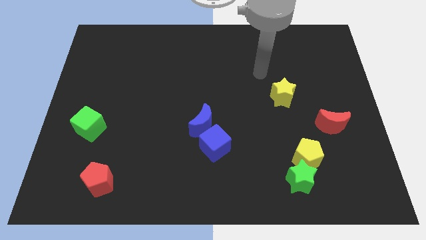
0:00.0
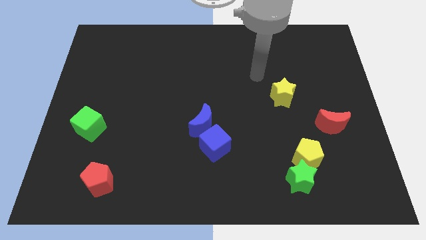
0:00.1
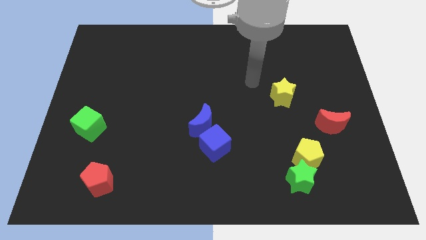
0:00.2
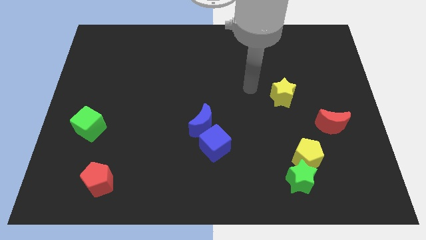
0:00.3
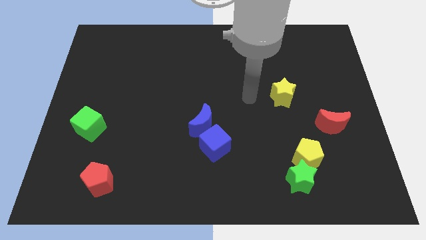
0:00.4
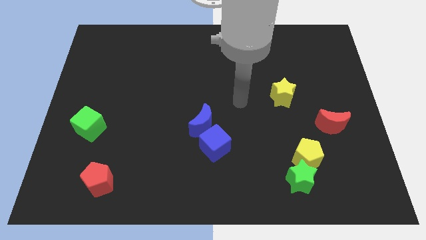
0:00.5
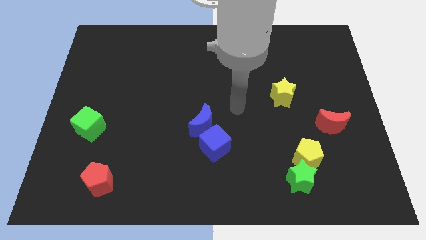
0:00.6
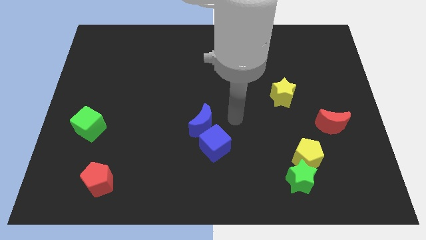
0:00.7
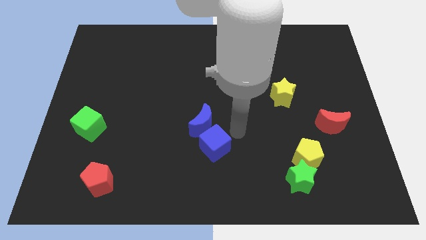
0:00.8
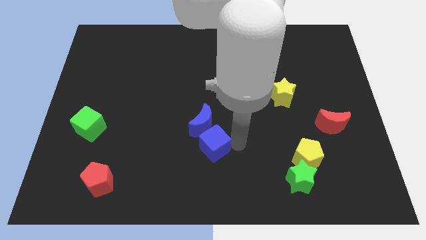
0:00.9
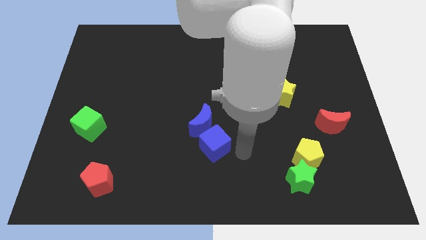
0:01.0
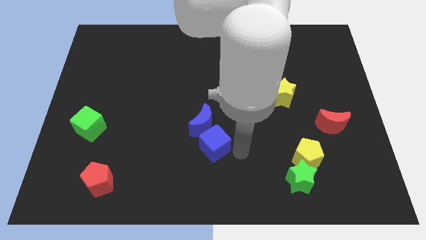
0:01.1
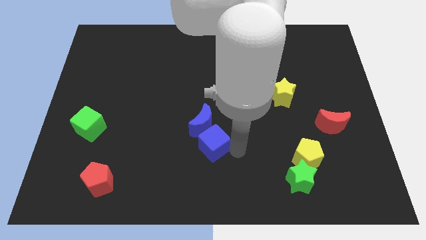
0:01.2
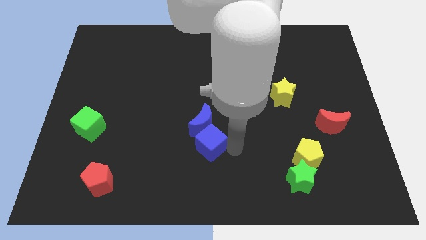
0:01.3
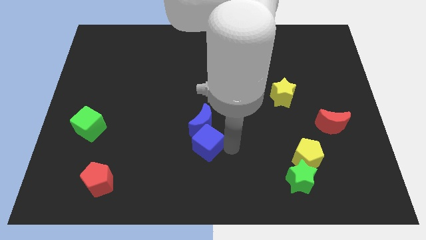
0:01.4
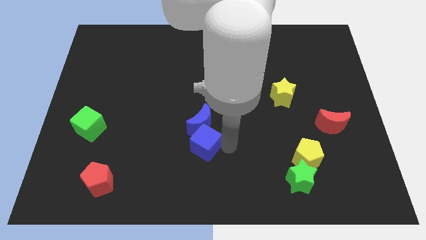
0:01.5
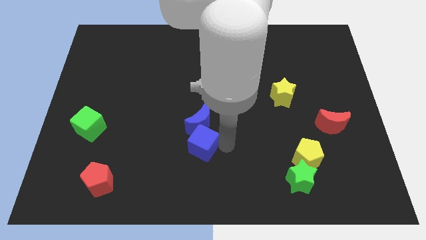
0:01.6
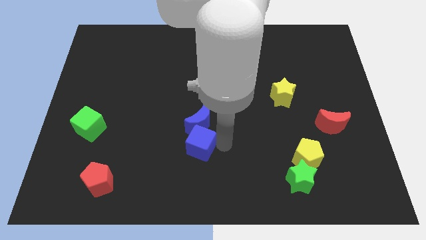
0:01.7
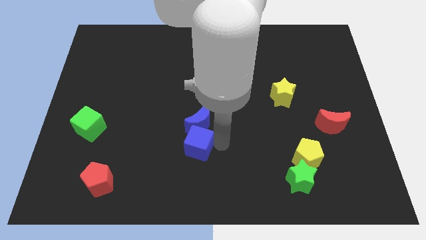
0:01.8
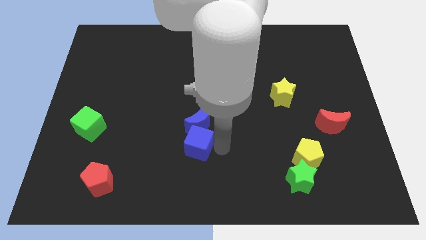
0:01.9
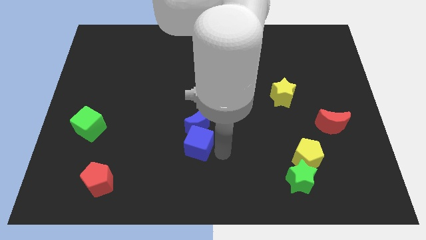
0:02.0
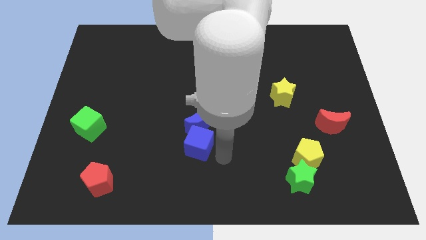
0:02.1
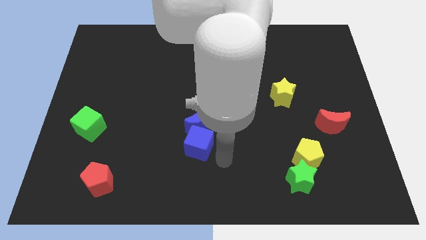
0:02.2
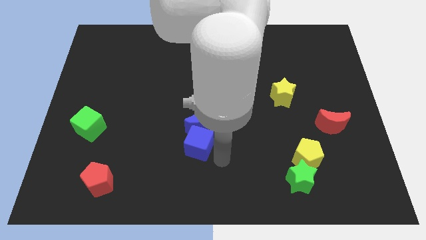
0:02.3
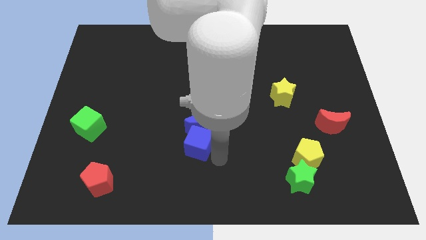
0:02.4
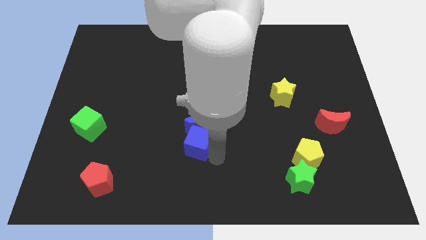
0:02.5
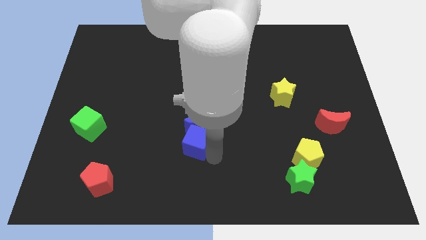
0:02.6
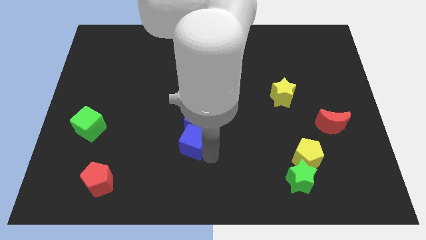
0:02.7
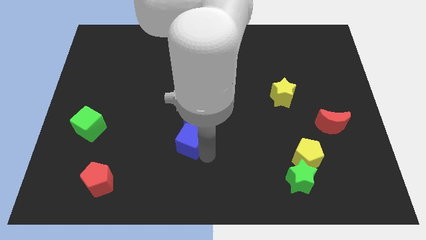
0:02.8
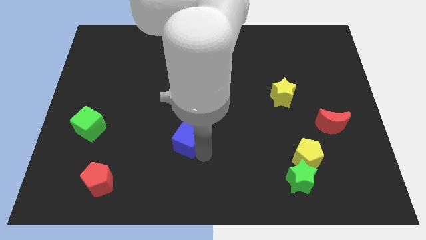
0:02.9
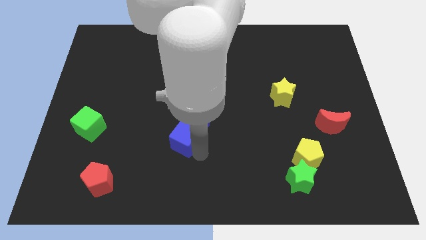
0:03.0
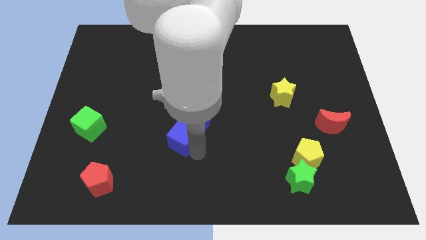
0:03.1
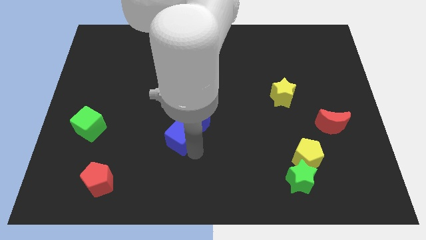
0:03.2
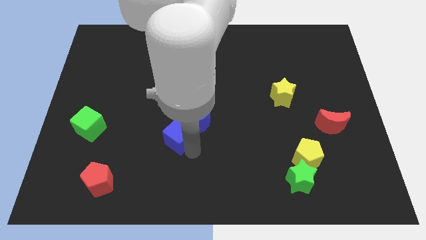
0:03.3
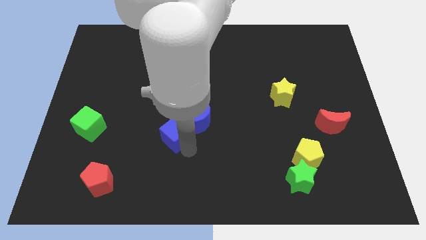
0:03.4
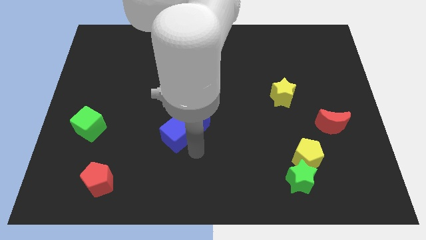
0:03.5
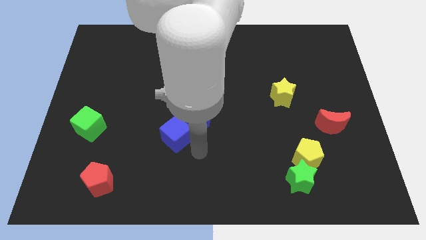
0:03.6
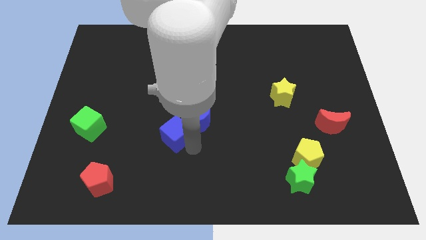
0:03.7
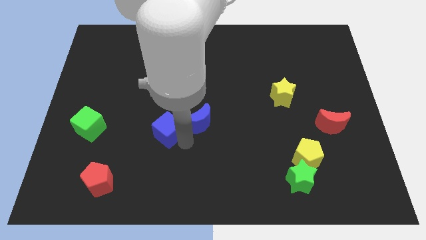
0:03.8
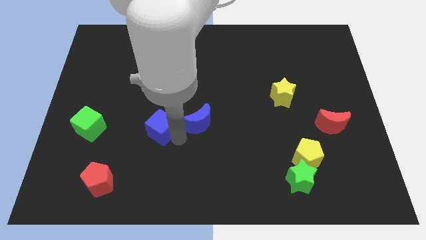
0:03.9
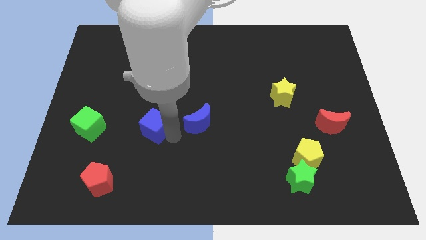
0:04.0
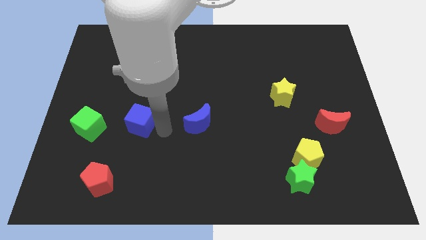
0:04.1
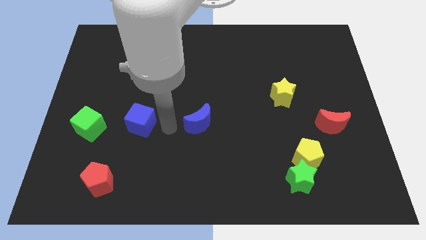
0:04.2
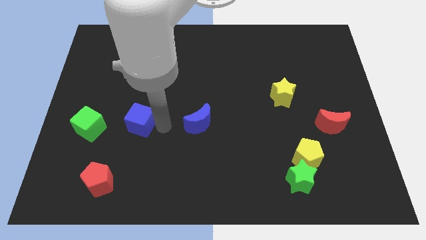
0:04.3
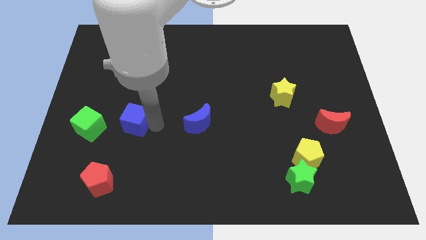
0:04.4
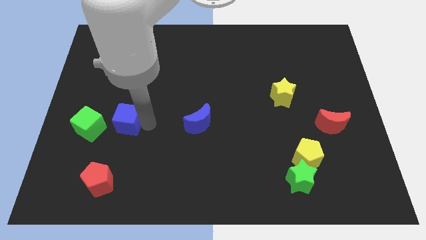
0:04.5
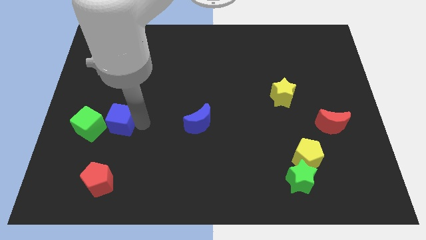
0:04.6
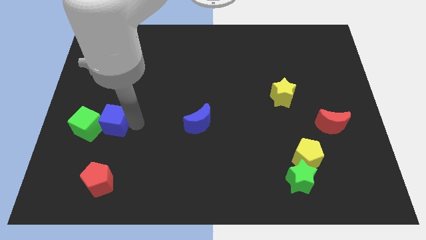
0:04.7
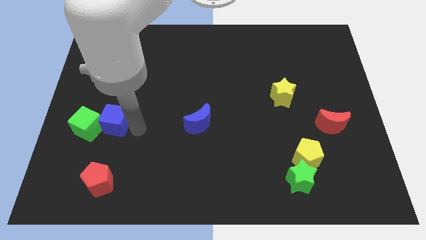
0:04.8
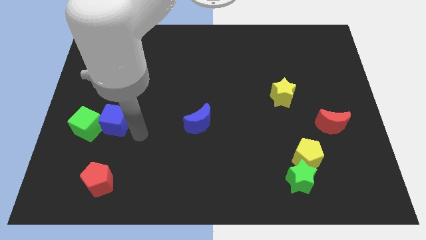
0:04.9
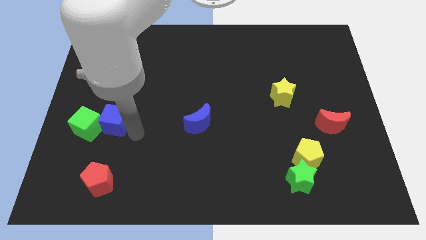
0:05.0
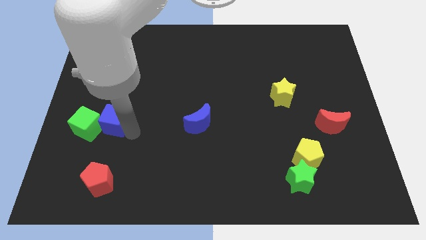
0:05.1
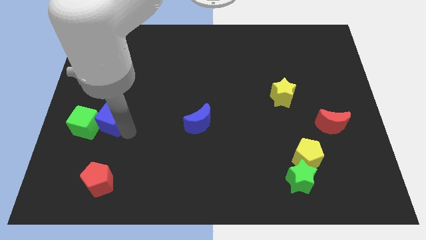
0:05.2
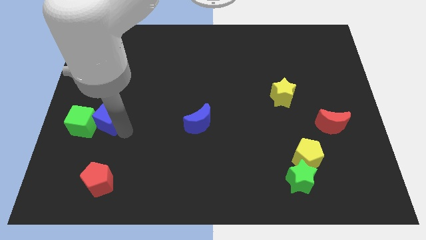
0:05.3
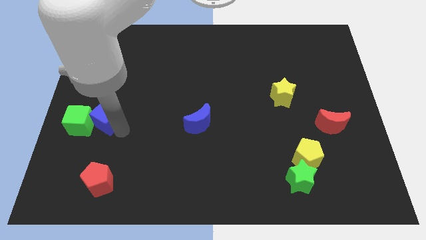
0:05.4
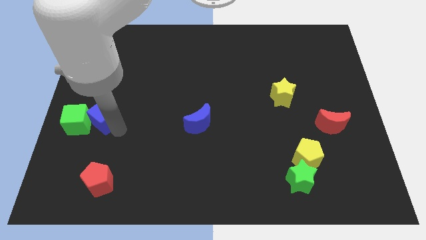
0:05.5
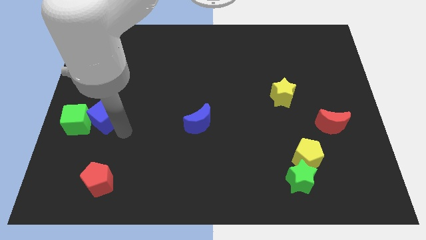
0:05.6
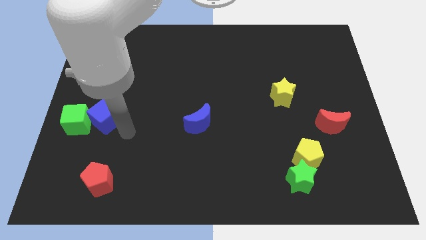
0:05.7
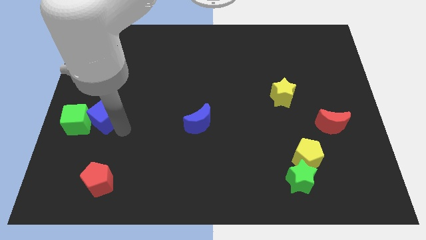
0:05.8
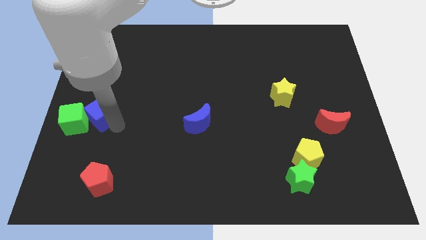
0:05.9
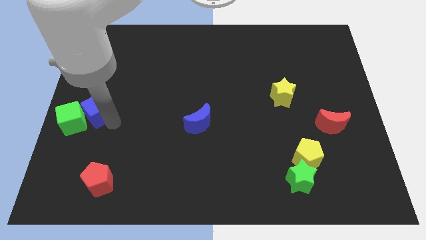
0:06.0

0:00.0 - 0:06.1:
push the blue cube to the left side
